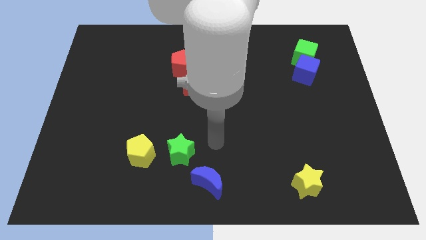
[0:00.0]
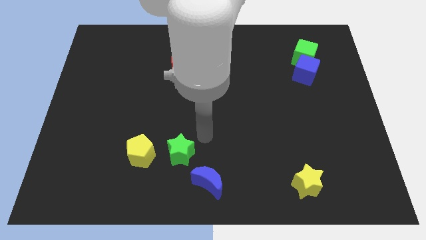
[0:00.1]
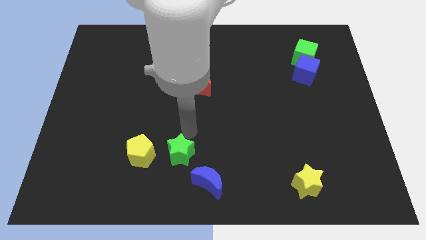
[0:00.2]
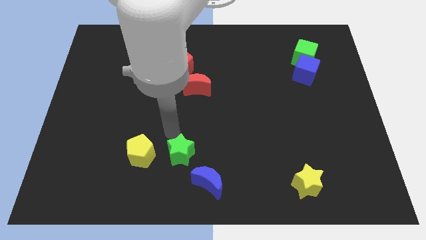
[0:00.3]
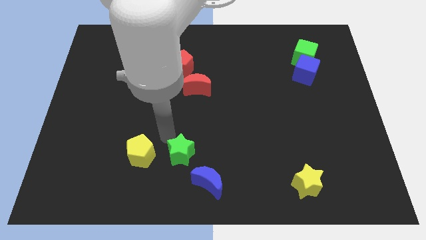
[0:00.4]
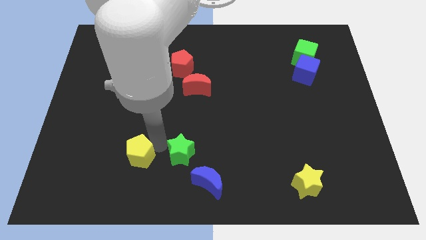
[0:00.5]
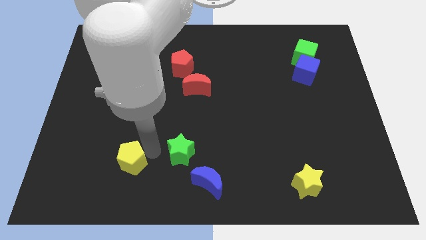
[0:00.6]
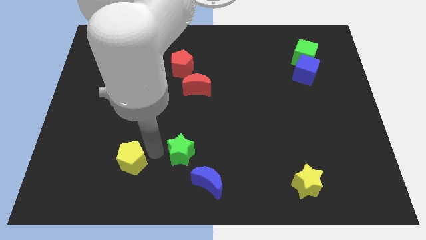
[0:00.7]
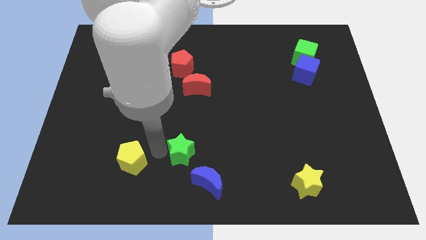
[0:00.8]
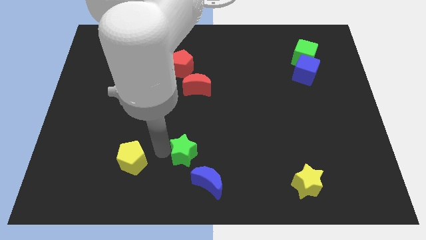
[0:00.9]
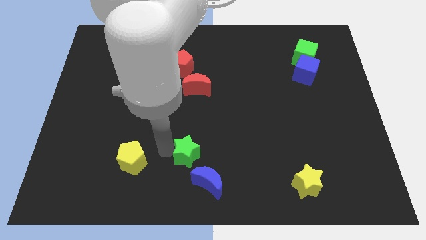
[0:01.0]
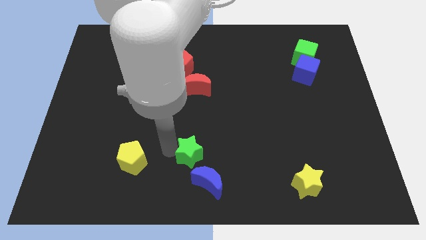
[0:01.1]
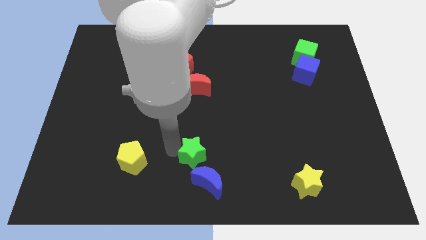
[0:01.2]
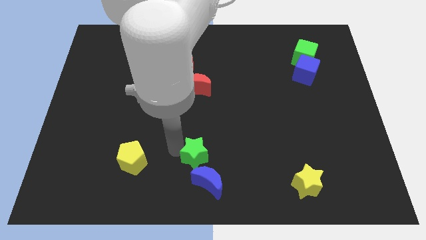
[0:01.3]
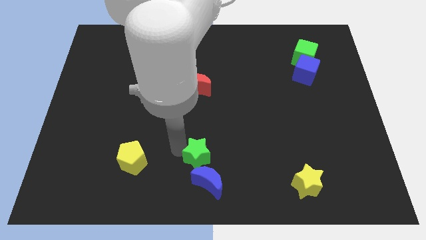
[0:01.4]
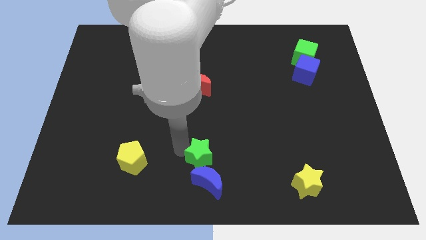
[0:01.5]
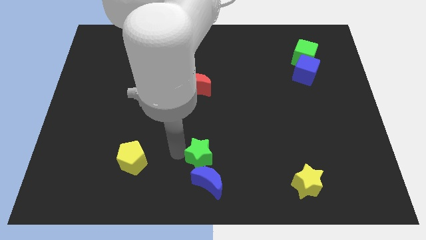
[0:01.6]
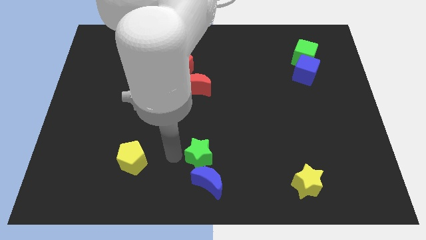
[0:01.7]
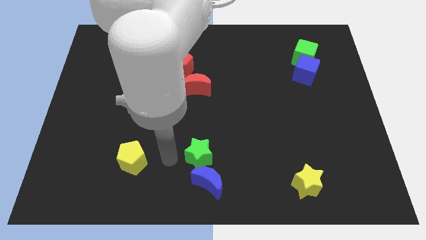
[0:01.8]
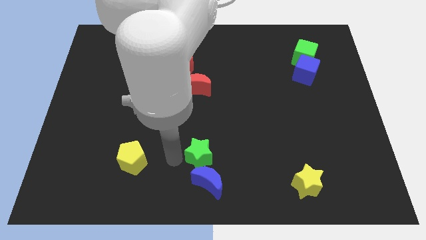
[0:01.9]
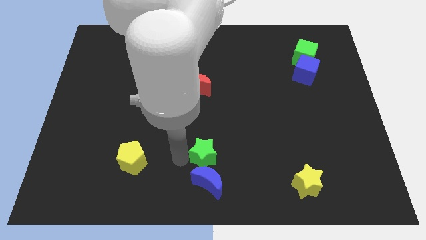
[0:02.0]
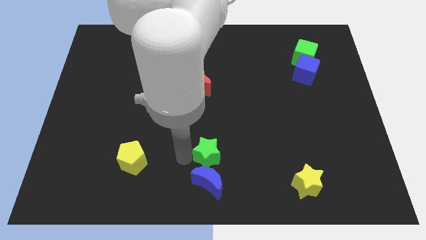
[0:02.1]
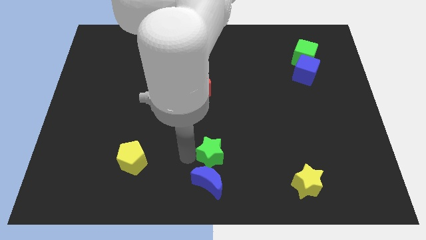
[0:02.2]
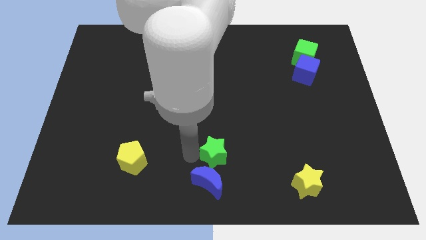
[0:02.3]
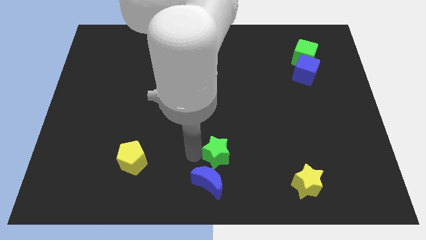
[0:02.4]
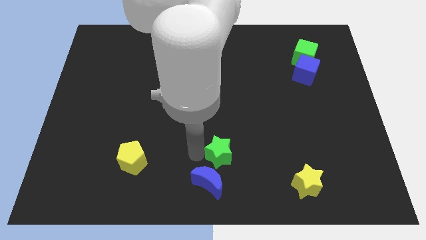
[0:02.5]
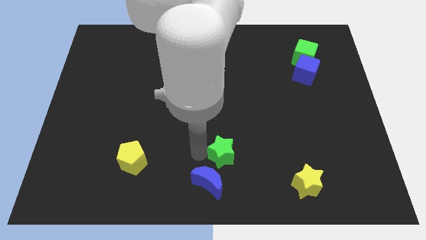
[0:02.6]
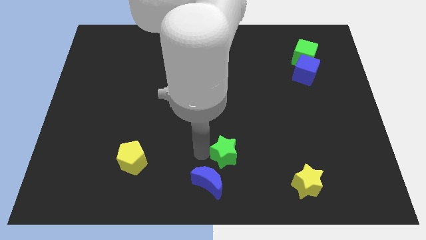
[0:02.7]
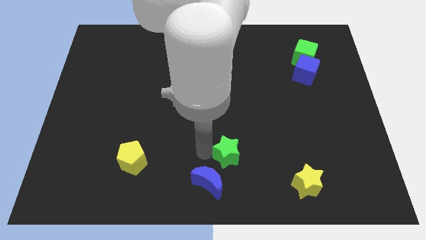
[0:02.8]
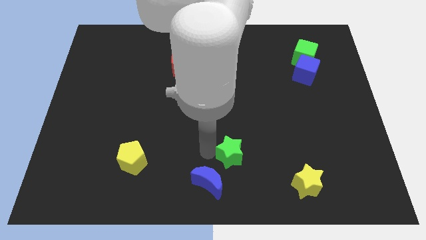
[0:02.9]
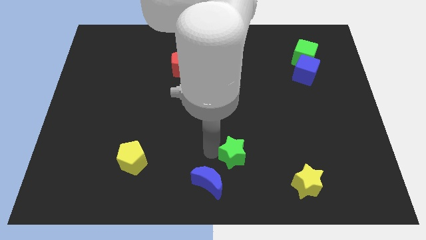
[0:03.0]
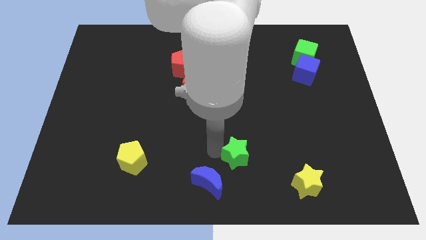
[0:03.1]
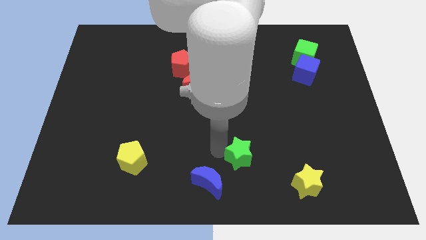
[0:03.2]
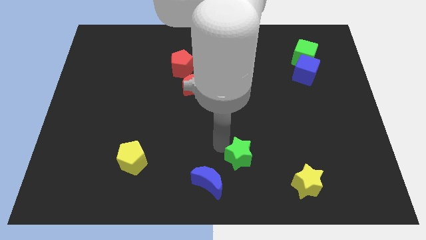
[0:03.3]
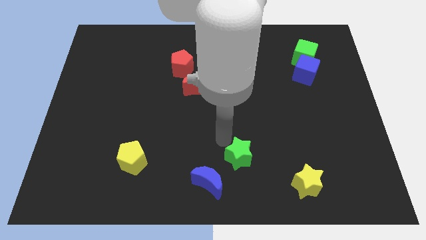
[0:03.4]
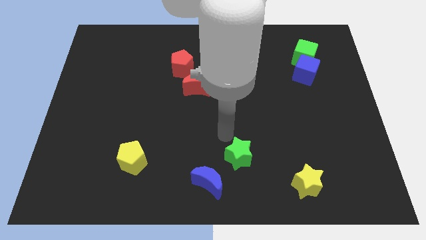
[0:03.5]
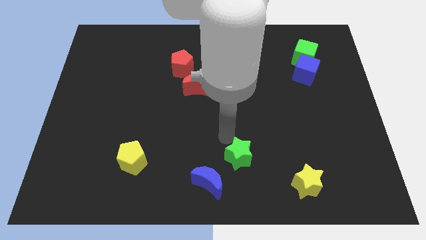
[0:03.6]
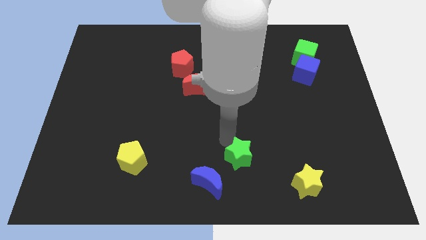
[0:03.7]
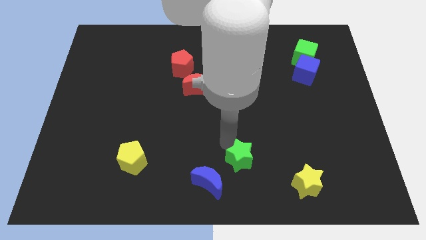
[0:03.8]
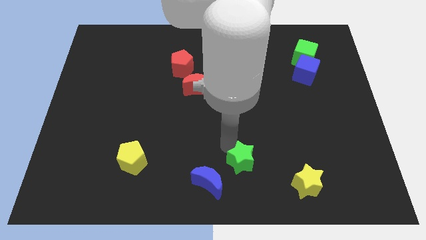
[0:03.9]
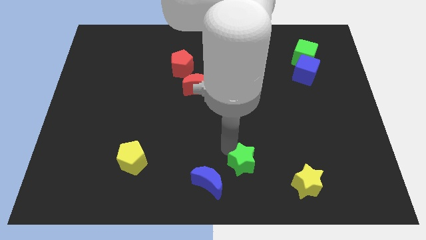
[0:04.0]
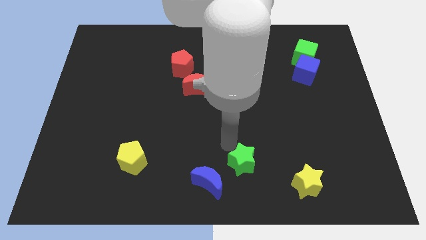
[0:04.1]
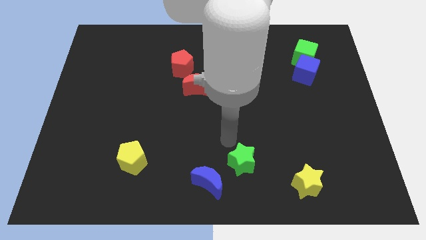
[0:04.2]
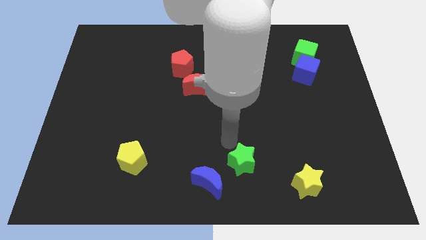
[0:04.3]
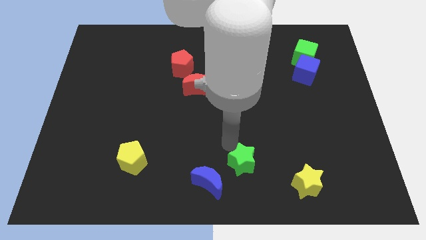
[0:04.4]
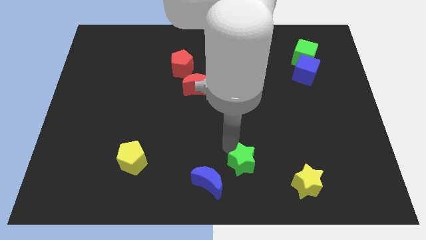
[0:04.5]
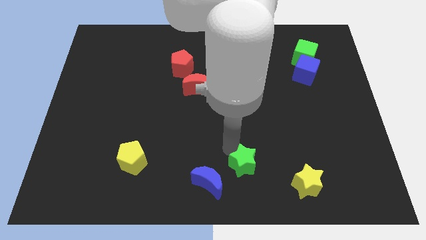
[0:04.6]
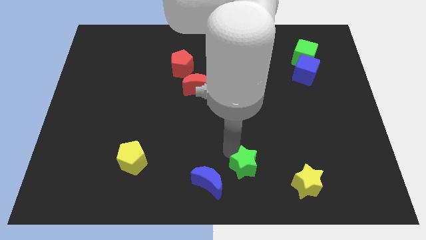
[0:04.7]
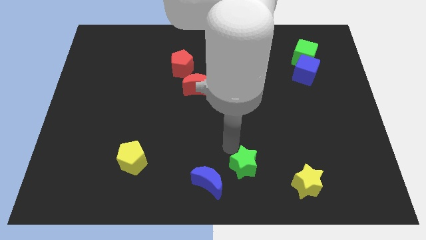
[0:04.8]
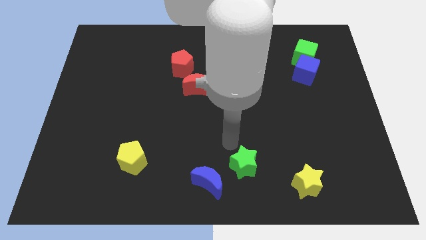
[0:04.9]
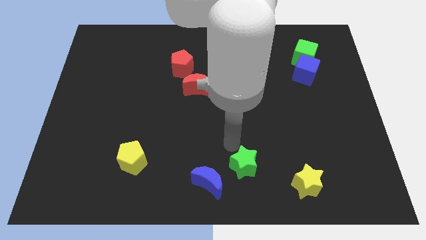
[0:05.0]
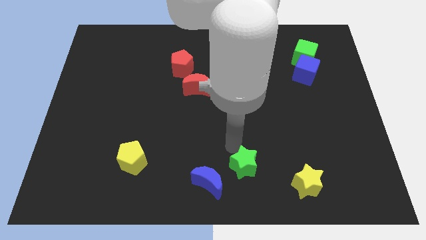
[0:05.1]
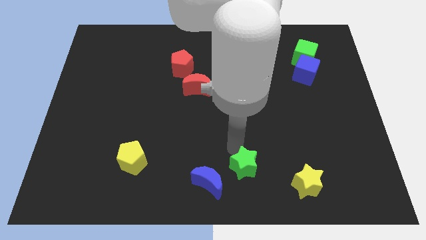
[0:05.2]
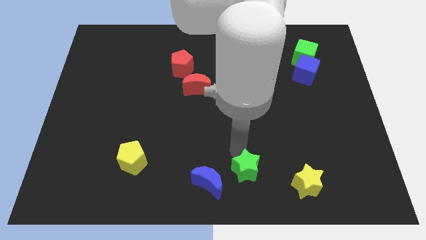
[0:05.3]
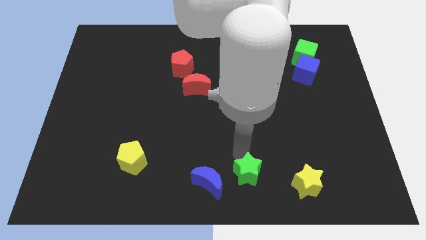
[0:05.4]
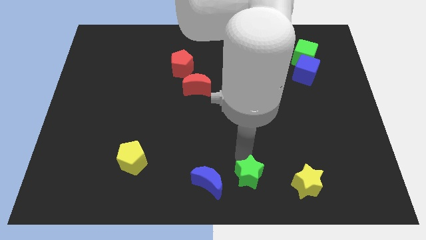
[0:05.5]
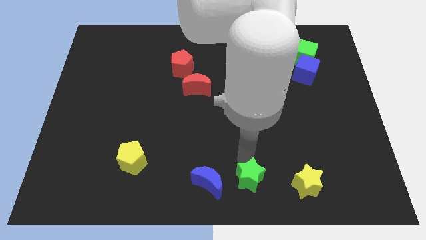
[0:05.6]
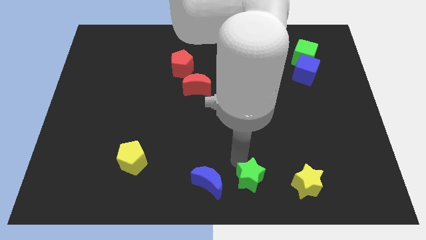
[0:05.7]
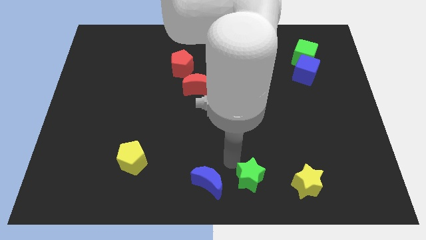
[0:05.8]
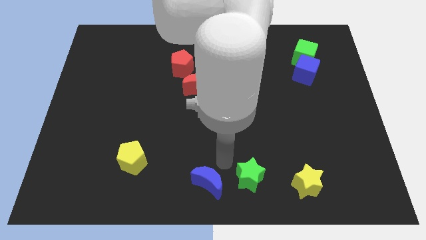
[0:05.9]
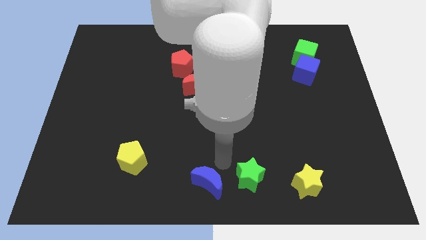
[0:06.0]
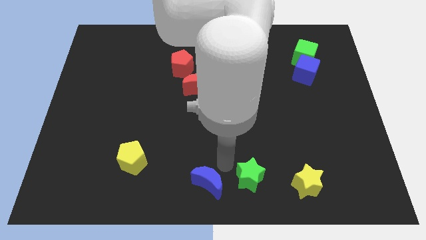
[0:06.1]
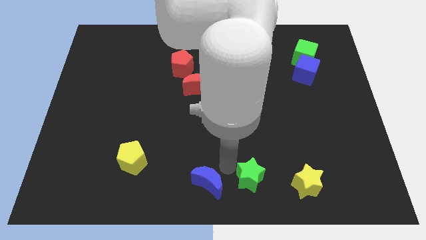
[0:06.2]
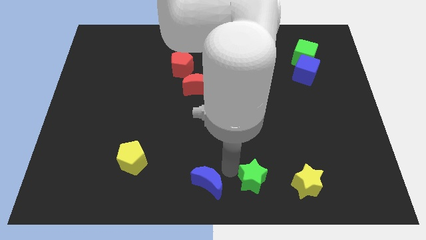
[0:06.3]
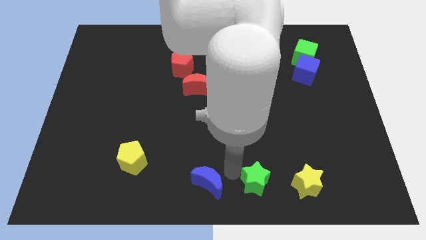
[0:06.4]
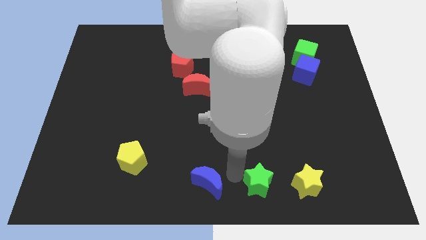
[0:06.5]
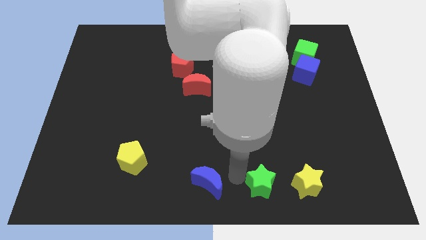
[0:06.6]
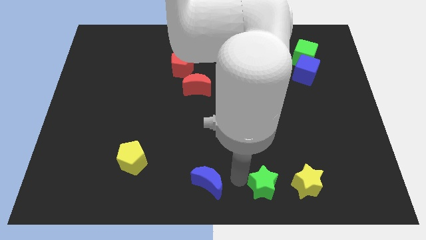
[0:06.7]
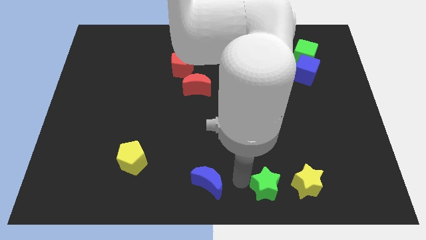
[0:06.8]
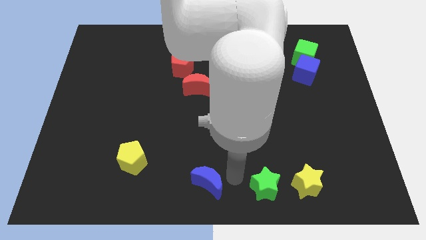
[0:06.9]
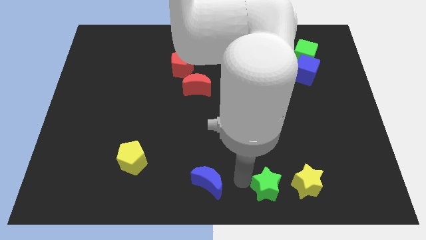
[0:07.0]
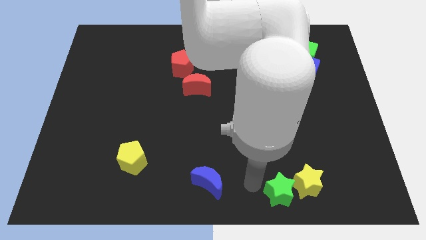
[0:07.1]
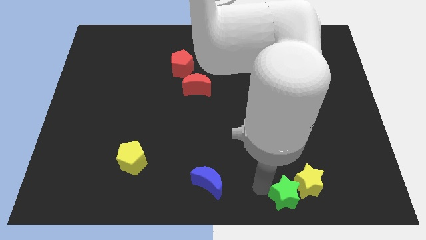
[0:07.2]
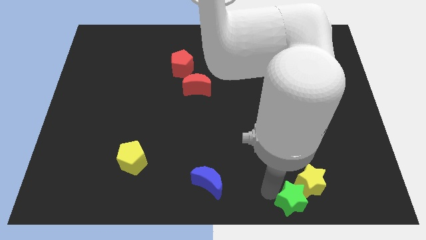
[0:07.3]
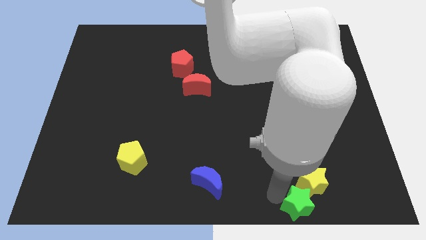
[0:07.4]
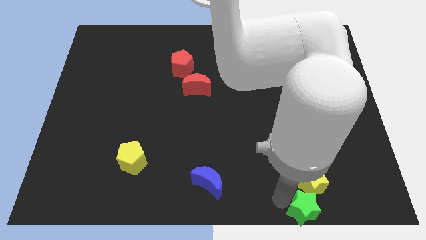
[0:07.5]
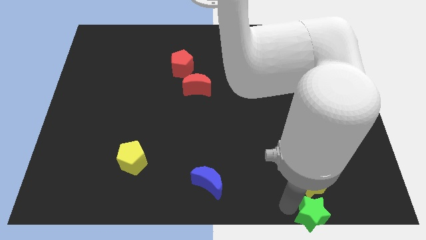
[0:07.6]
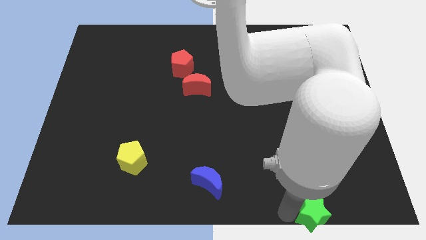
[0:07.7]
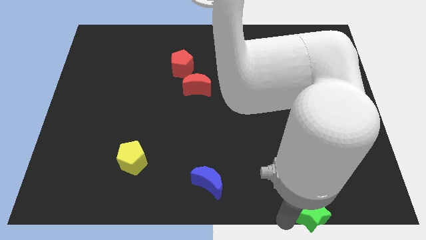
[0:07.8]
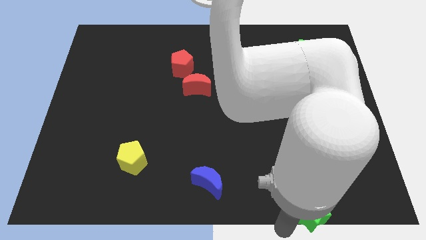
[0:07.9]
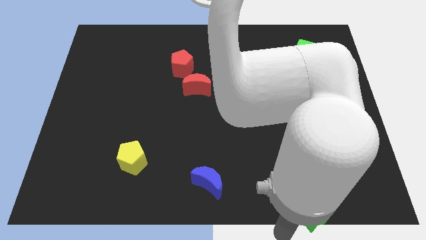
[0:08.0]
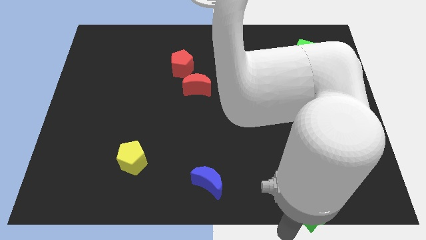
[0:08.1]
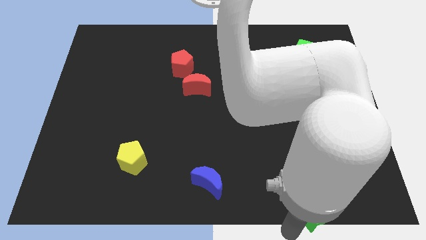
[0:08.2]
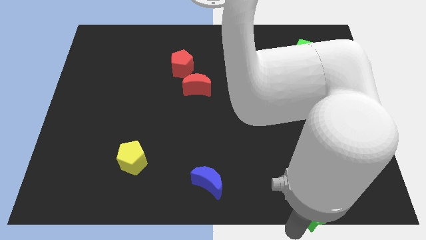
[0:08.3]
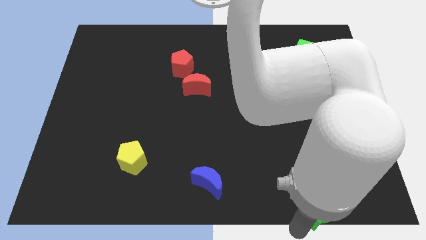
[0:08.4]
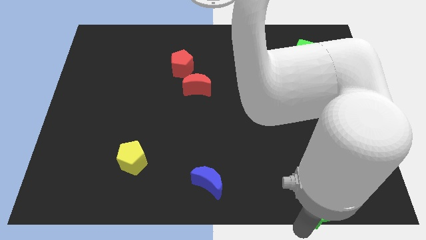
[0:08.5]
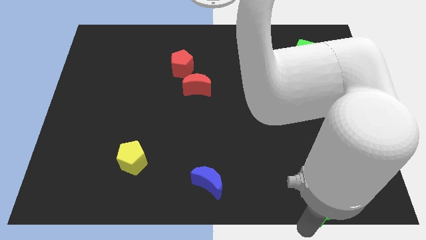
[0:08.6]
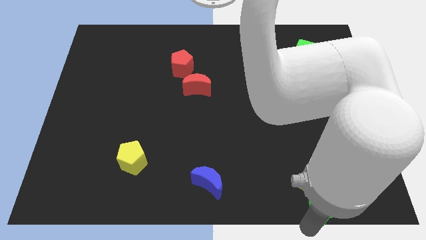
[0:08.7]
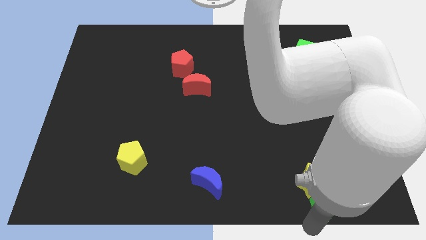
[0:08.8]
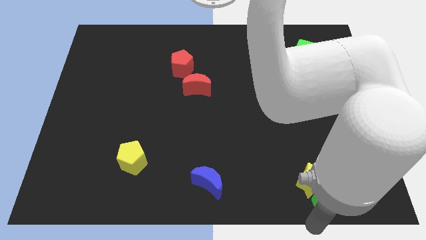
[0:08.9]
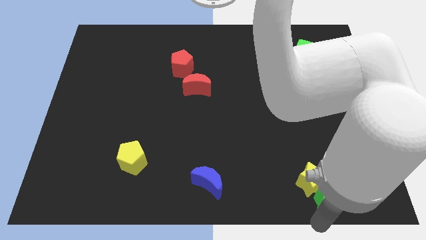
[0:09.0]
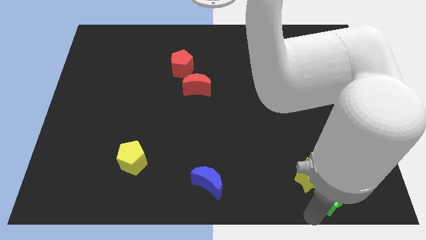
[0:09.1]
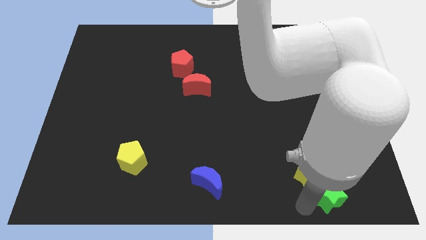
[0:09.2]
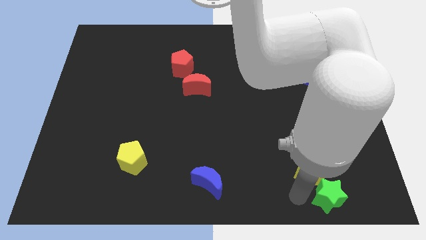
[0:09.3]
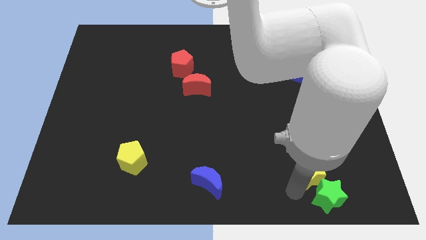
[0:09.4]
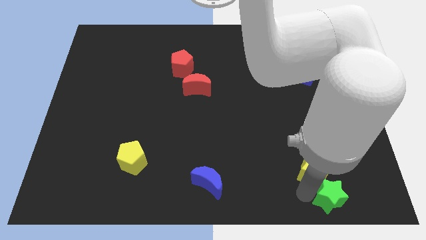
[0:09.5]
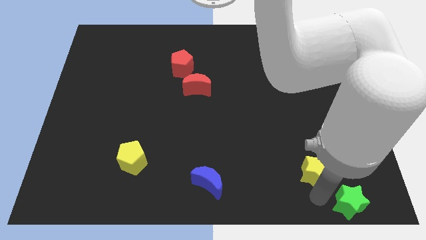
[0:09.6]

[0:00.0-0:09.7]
slide the green star to the bottom right
